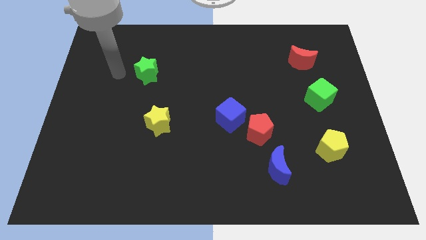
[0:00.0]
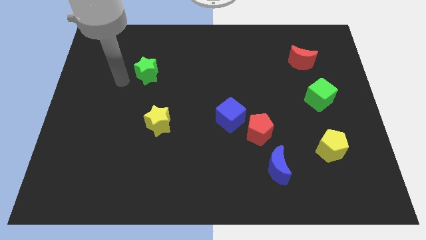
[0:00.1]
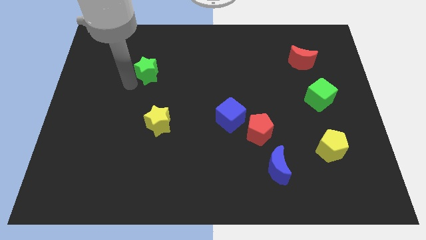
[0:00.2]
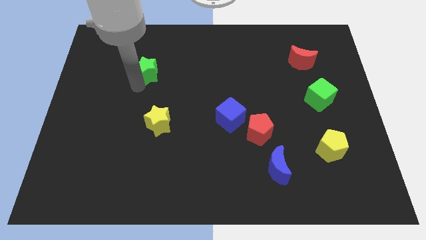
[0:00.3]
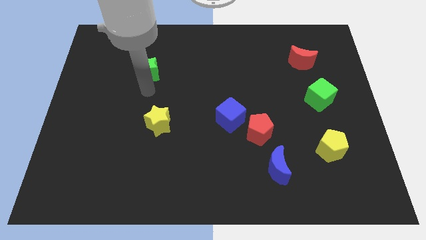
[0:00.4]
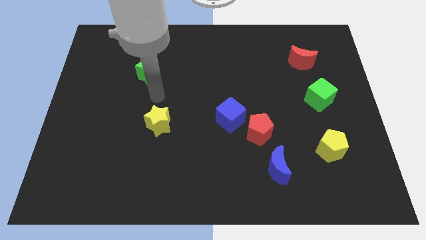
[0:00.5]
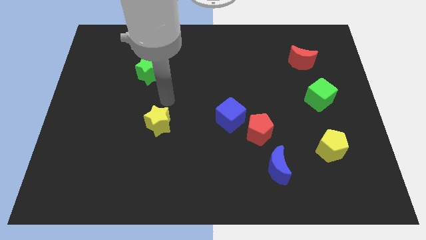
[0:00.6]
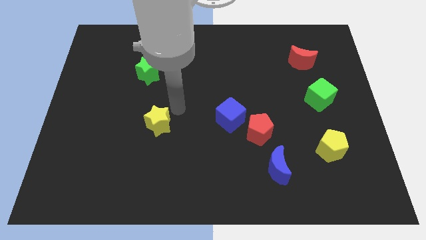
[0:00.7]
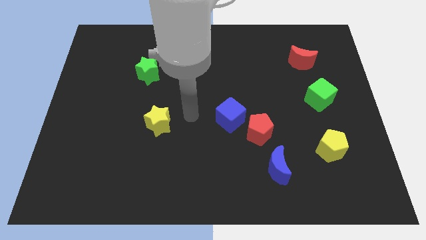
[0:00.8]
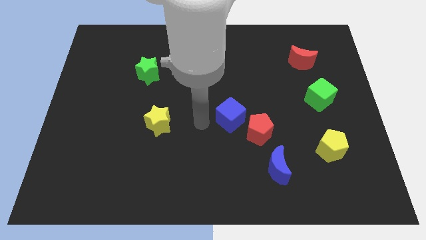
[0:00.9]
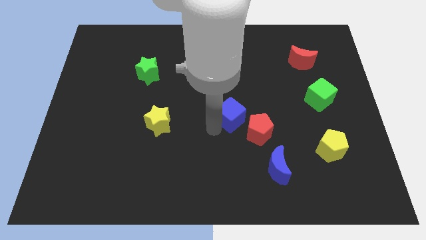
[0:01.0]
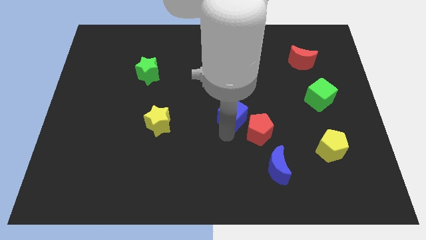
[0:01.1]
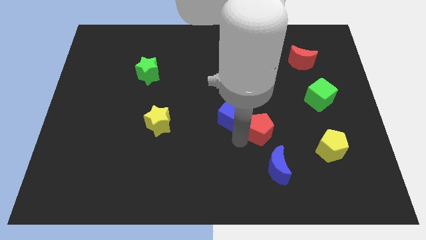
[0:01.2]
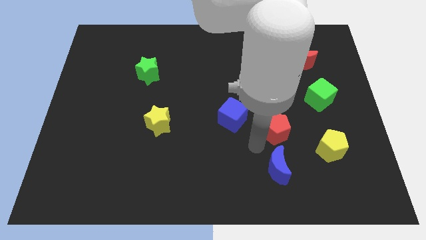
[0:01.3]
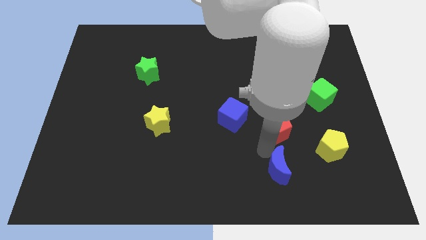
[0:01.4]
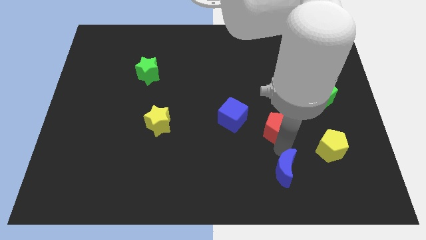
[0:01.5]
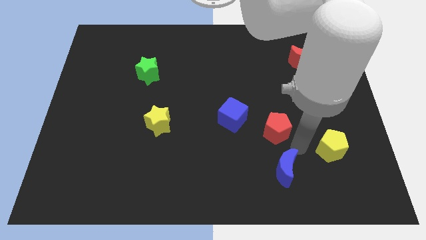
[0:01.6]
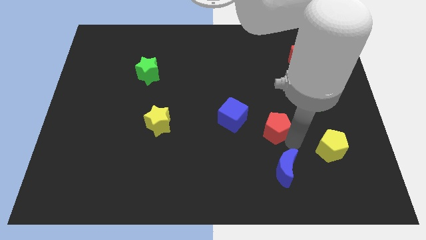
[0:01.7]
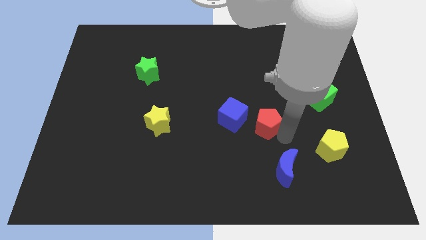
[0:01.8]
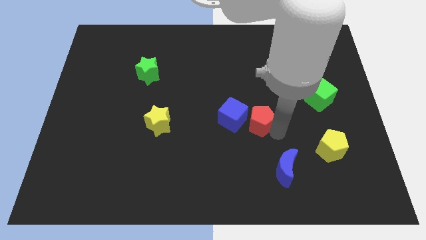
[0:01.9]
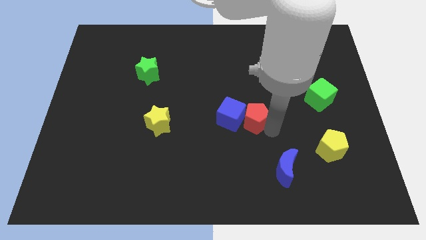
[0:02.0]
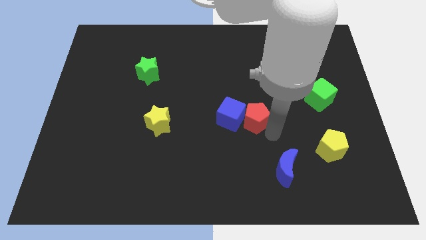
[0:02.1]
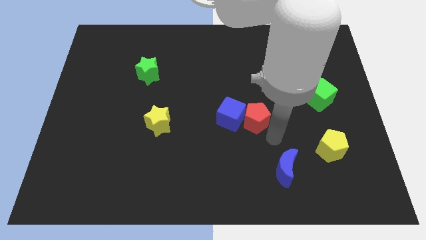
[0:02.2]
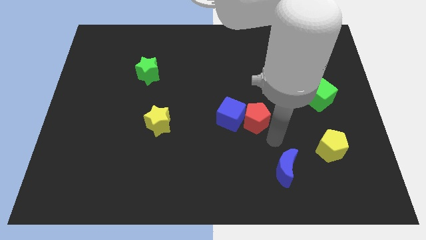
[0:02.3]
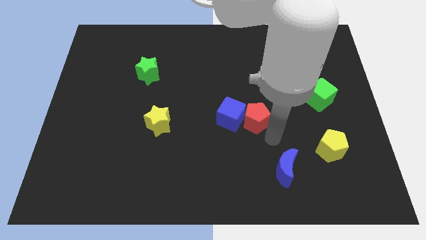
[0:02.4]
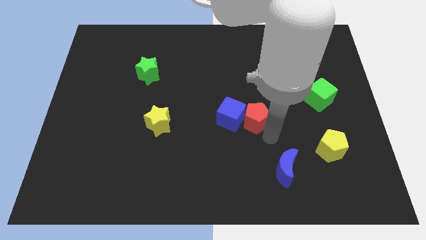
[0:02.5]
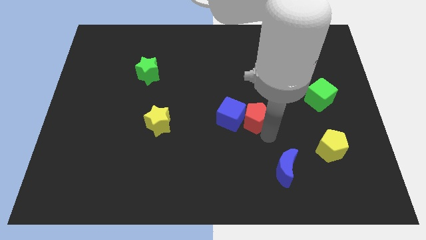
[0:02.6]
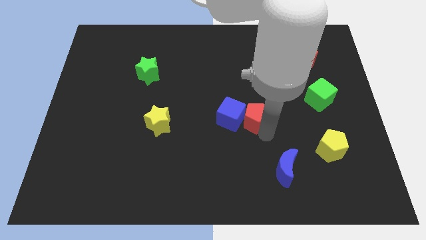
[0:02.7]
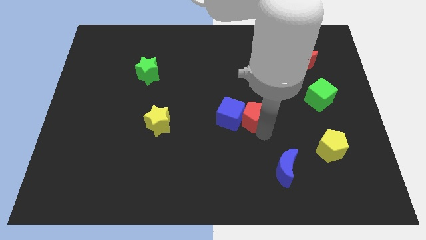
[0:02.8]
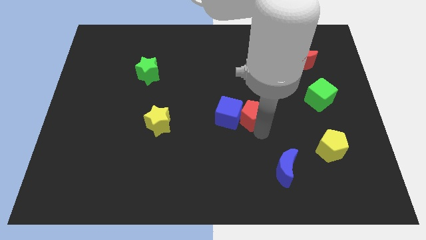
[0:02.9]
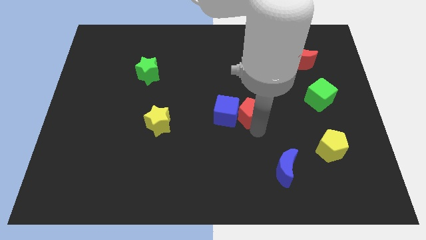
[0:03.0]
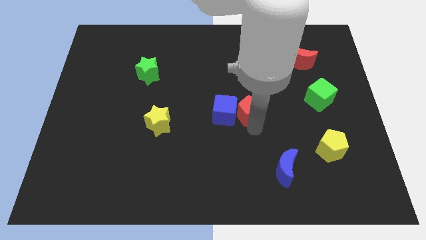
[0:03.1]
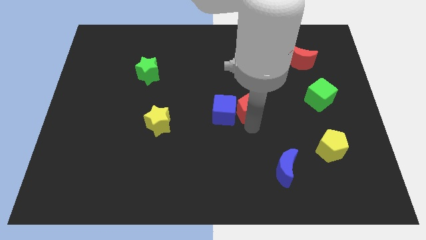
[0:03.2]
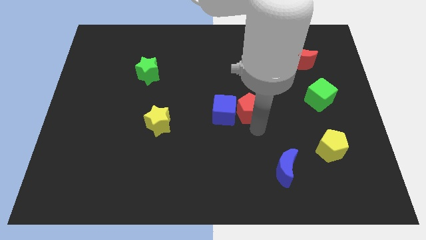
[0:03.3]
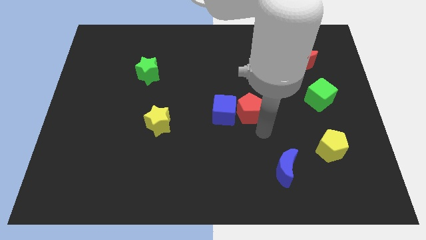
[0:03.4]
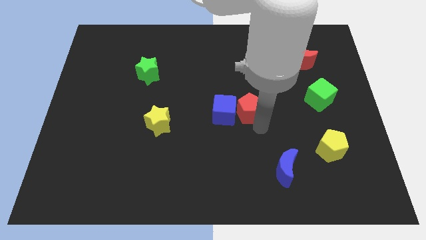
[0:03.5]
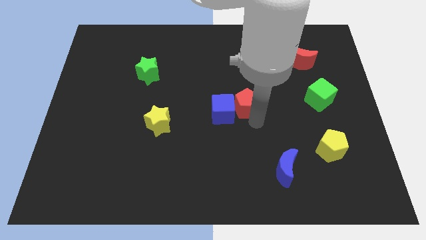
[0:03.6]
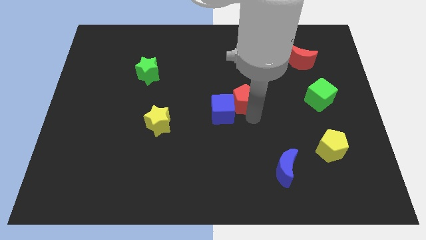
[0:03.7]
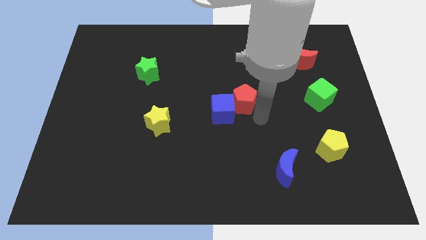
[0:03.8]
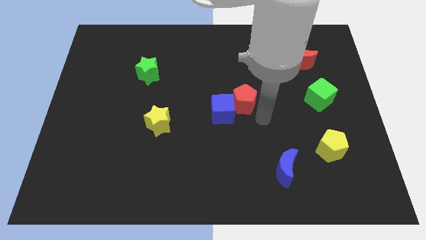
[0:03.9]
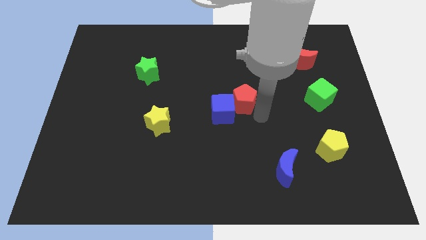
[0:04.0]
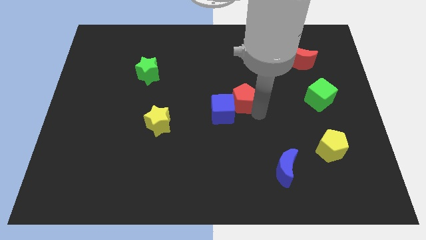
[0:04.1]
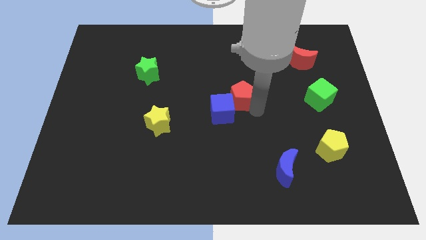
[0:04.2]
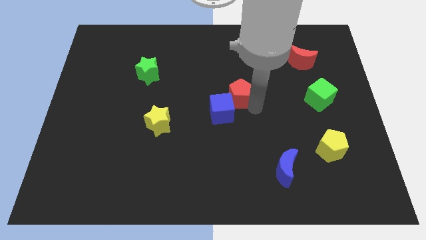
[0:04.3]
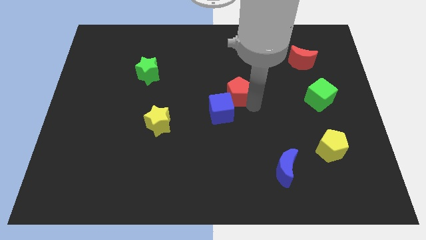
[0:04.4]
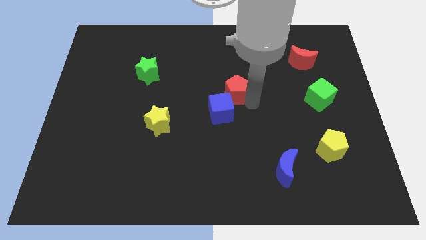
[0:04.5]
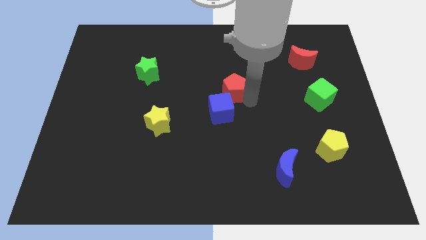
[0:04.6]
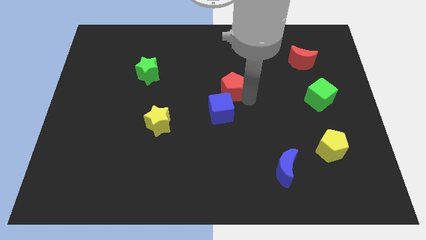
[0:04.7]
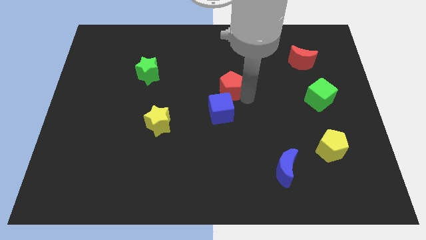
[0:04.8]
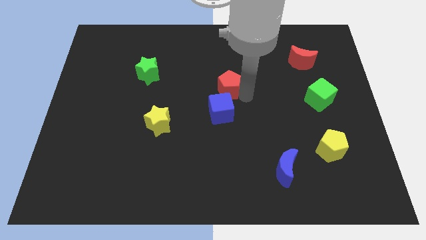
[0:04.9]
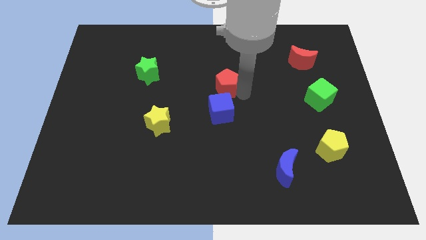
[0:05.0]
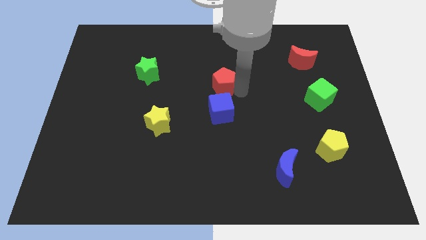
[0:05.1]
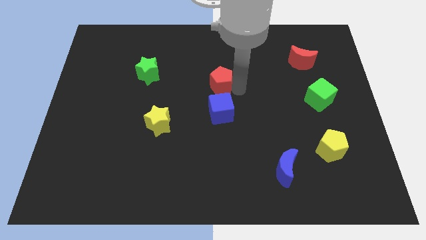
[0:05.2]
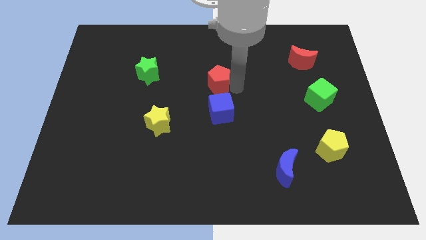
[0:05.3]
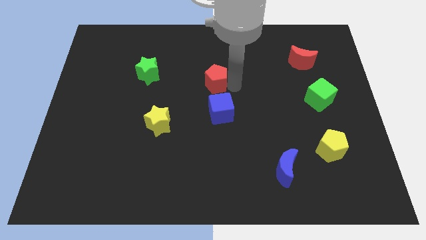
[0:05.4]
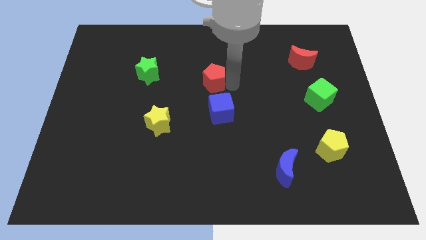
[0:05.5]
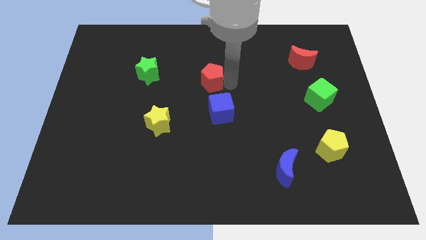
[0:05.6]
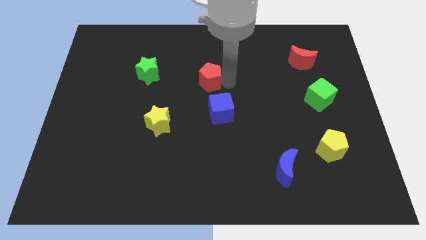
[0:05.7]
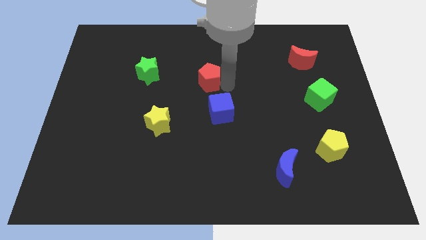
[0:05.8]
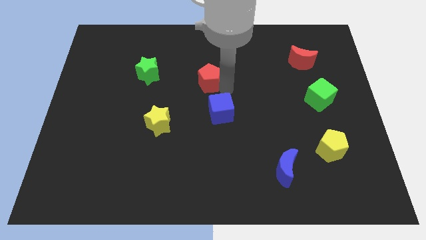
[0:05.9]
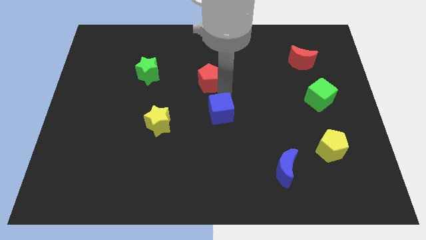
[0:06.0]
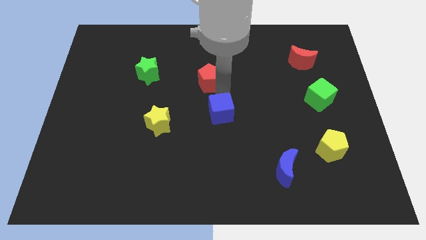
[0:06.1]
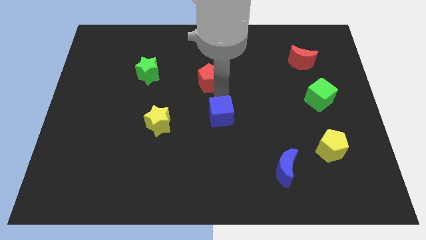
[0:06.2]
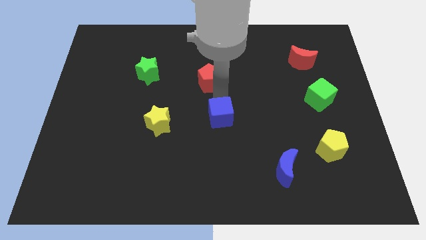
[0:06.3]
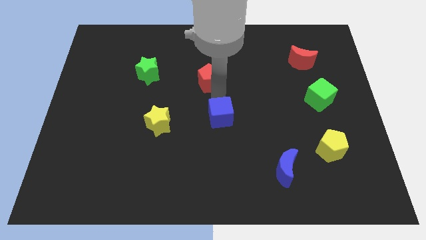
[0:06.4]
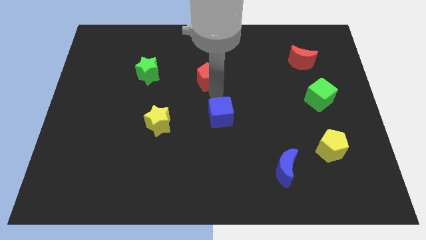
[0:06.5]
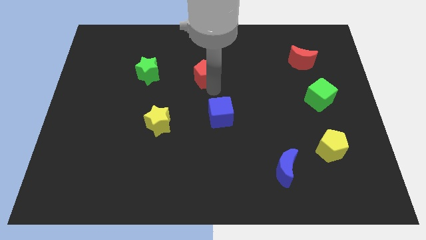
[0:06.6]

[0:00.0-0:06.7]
slide the red pentagon upwards and to the left diagonally

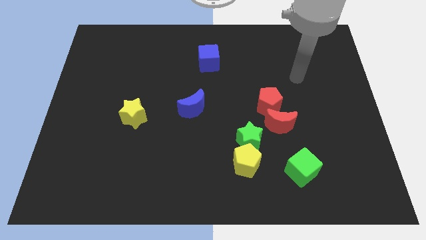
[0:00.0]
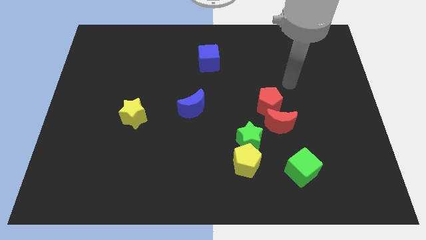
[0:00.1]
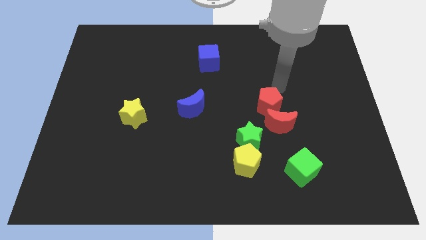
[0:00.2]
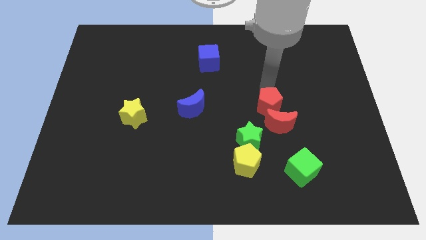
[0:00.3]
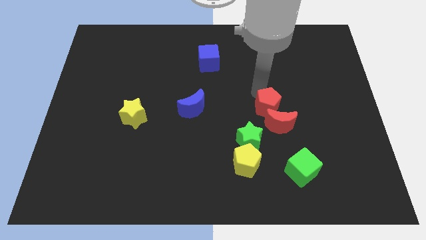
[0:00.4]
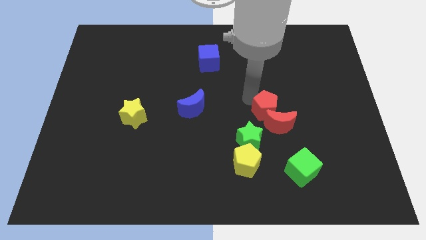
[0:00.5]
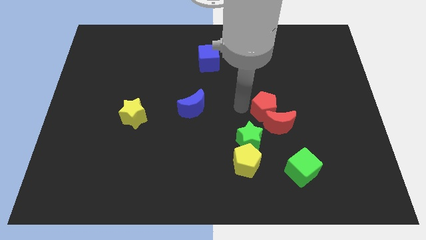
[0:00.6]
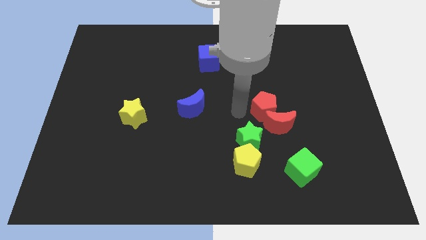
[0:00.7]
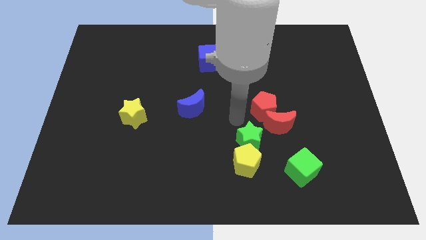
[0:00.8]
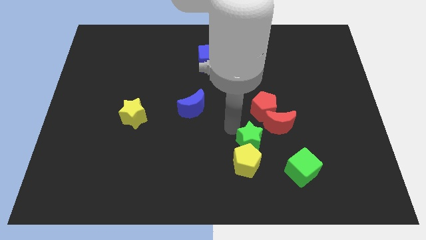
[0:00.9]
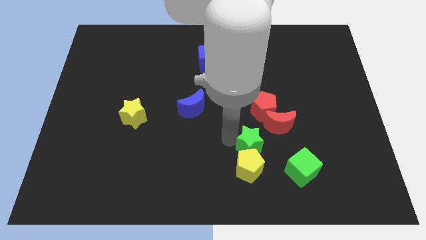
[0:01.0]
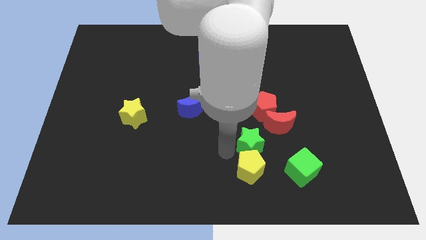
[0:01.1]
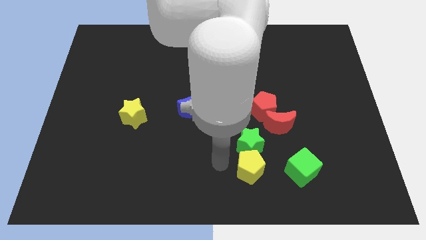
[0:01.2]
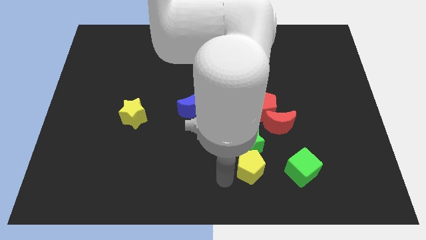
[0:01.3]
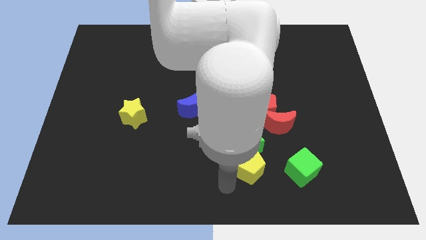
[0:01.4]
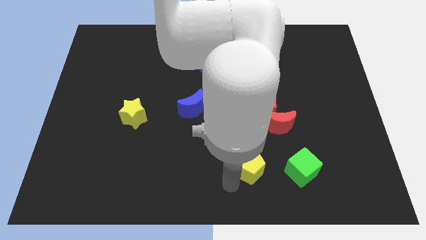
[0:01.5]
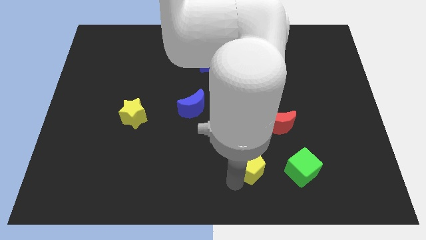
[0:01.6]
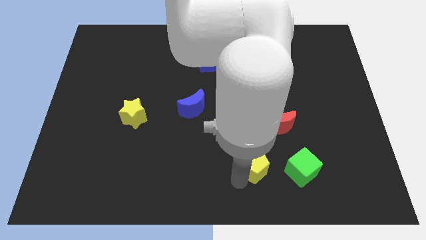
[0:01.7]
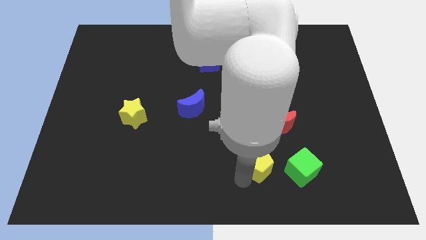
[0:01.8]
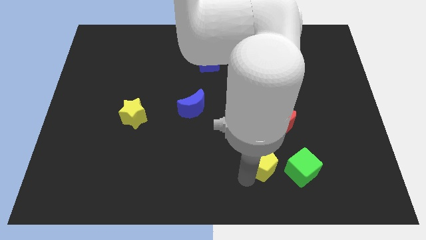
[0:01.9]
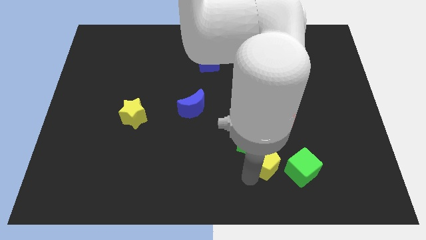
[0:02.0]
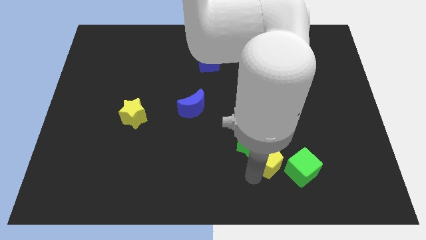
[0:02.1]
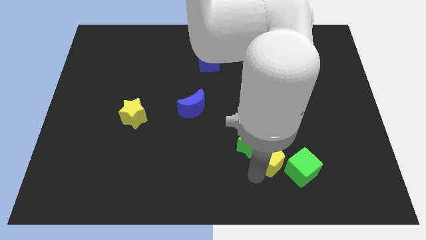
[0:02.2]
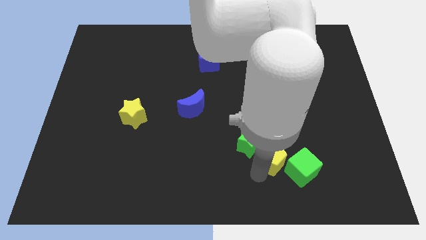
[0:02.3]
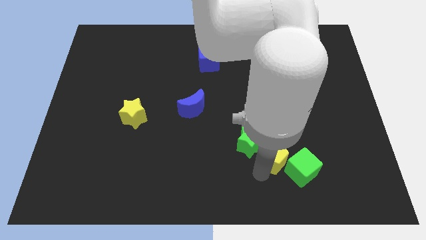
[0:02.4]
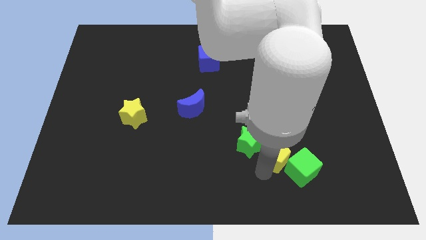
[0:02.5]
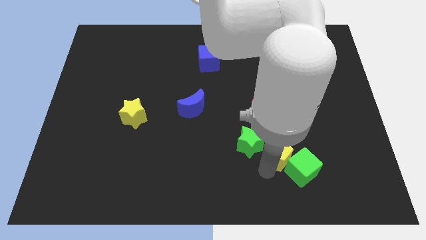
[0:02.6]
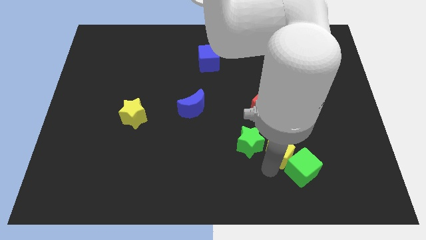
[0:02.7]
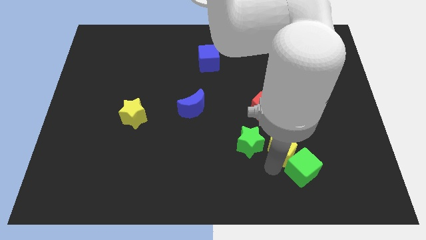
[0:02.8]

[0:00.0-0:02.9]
slide the yellow pentagon diagonally up and right a bit
